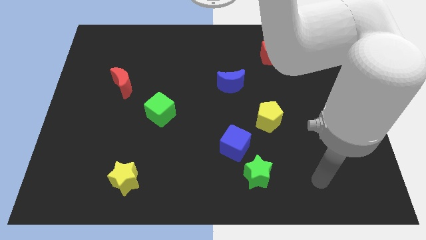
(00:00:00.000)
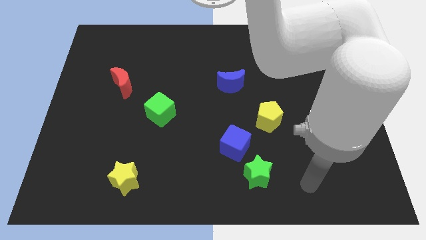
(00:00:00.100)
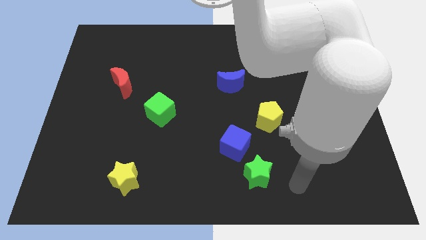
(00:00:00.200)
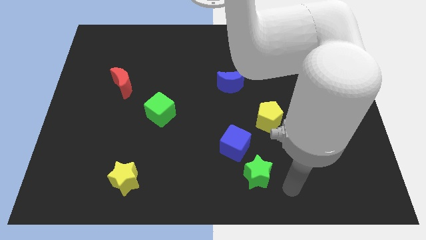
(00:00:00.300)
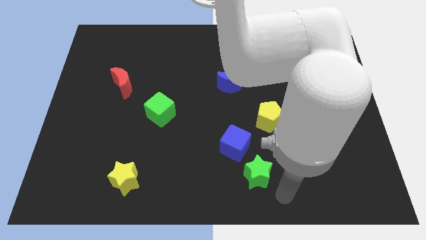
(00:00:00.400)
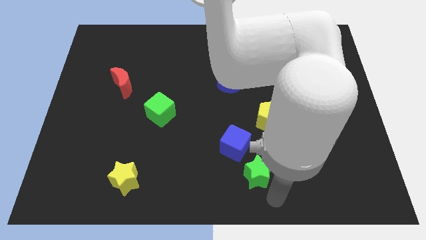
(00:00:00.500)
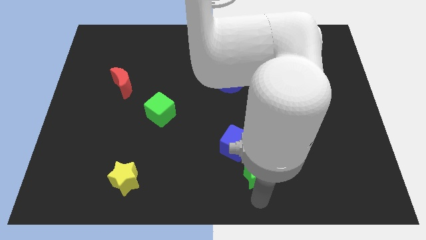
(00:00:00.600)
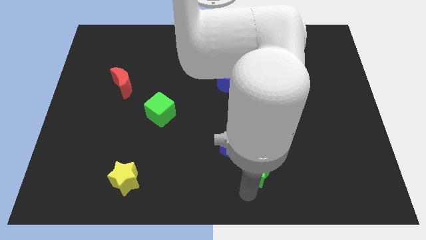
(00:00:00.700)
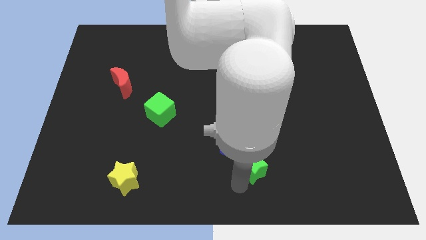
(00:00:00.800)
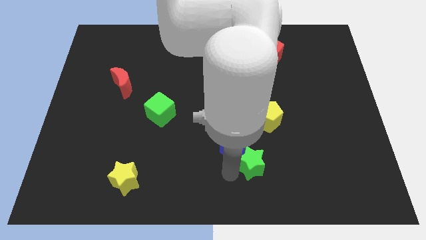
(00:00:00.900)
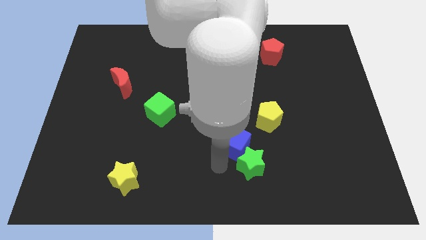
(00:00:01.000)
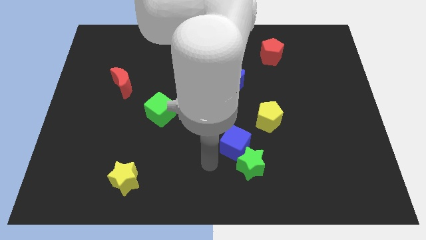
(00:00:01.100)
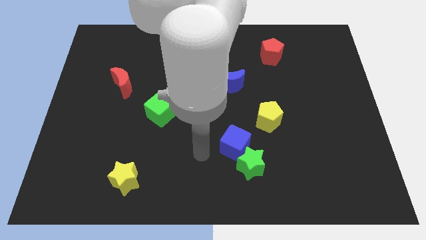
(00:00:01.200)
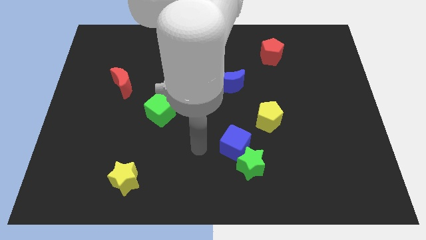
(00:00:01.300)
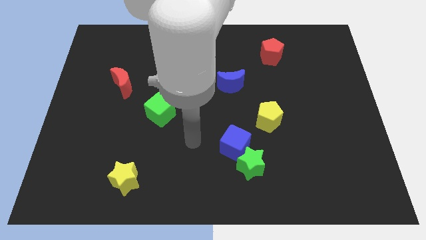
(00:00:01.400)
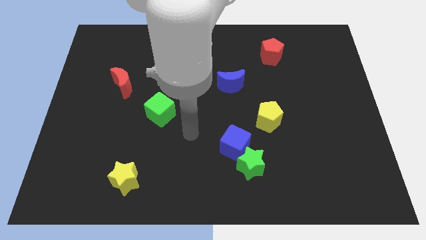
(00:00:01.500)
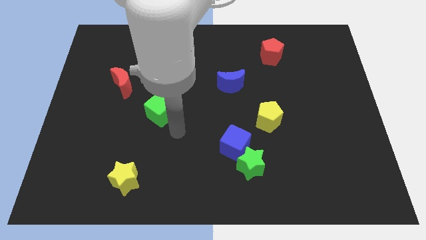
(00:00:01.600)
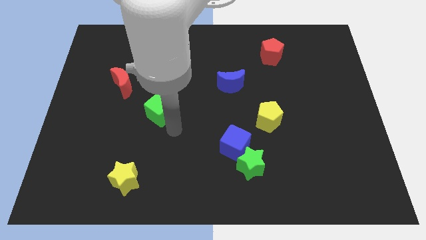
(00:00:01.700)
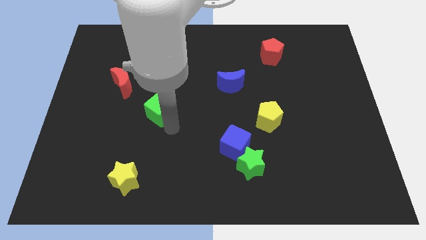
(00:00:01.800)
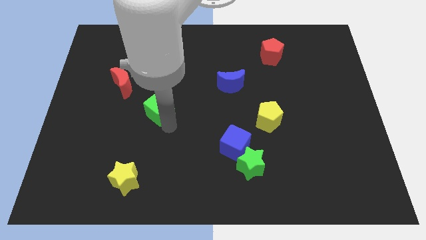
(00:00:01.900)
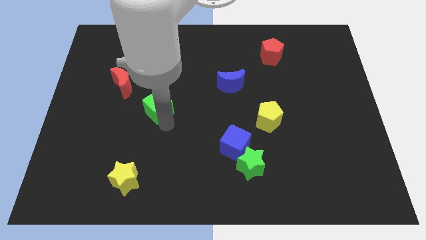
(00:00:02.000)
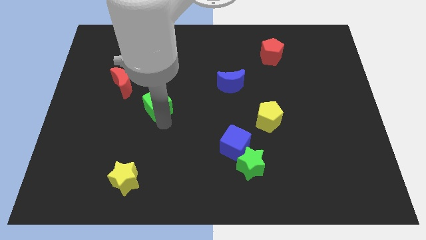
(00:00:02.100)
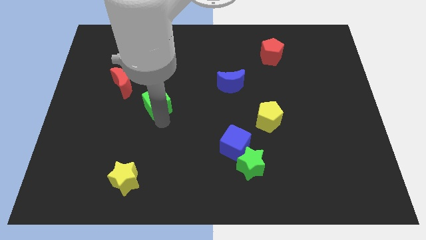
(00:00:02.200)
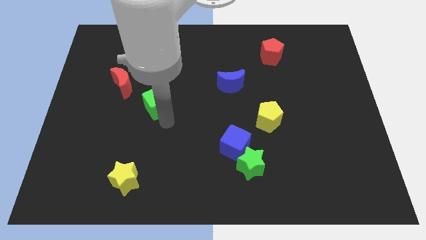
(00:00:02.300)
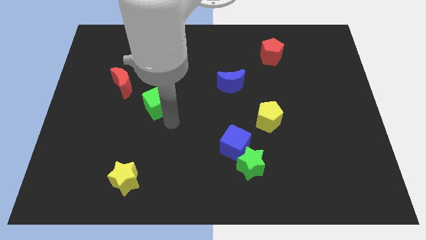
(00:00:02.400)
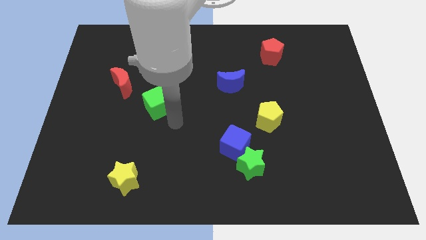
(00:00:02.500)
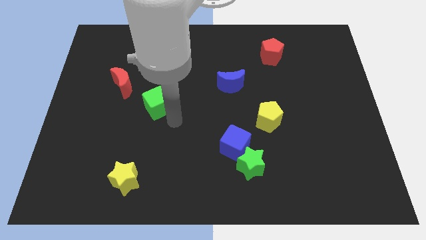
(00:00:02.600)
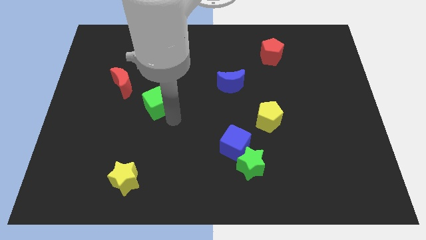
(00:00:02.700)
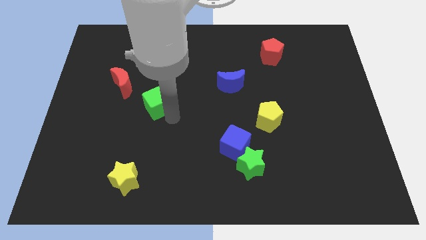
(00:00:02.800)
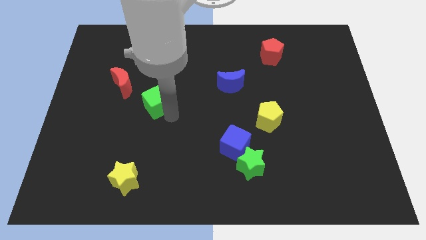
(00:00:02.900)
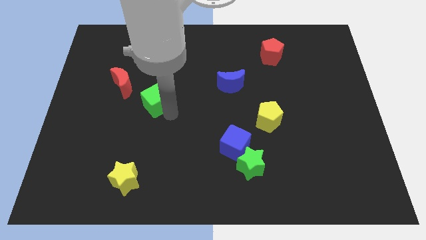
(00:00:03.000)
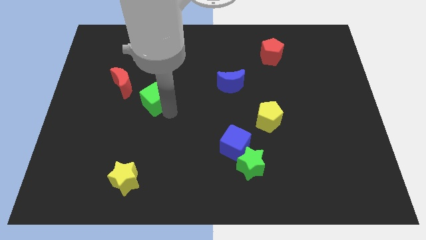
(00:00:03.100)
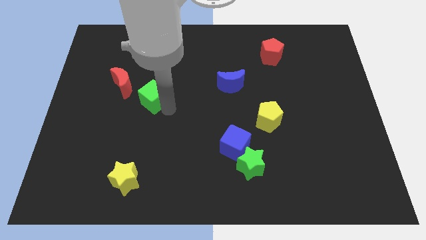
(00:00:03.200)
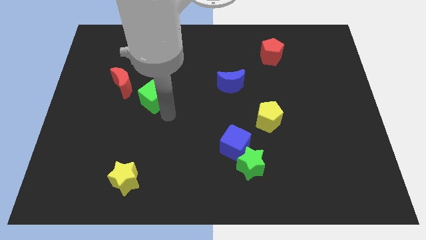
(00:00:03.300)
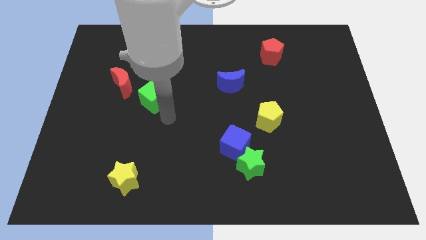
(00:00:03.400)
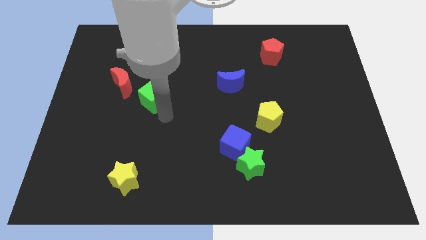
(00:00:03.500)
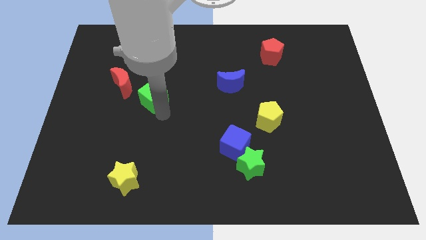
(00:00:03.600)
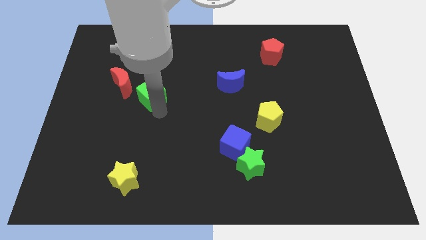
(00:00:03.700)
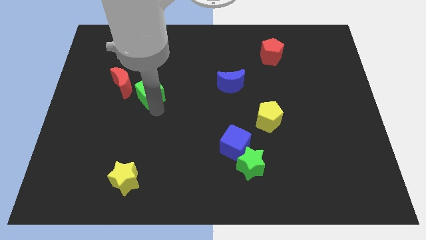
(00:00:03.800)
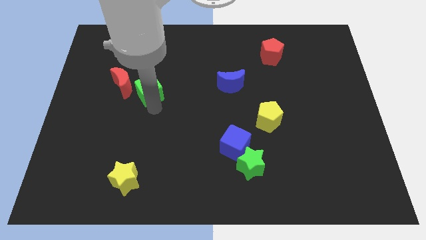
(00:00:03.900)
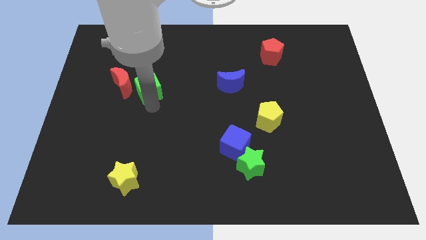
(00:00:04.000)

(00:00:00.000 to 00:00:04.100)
move the green cube upwards and left diagonally somewhat

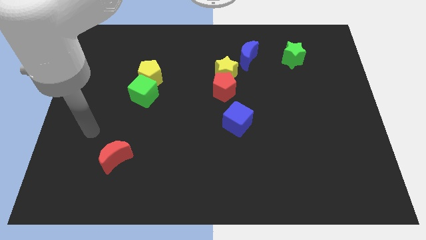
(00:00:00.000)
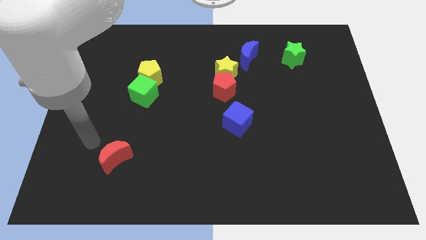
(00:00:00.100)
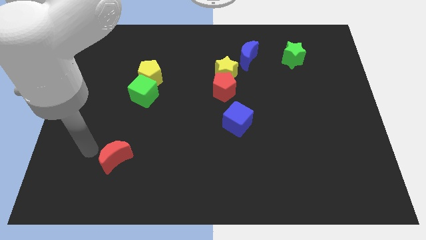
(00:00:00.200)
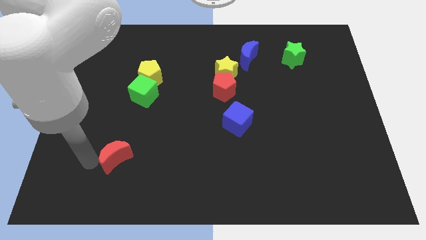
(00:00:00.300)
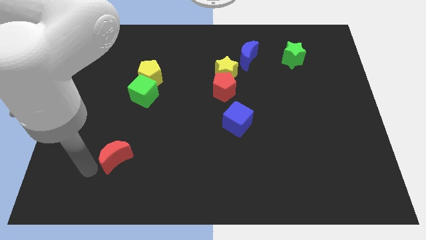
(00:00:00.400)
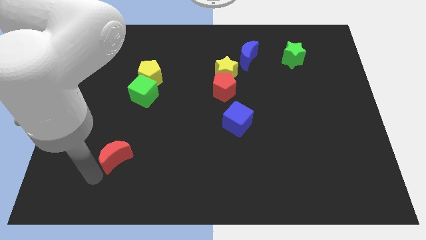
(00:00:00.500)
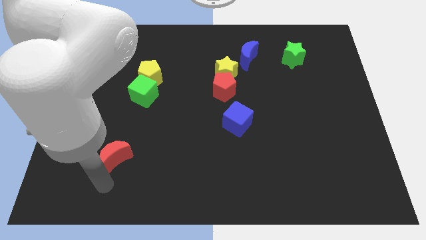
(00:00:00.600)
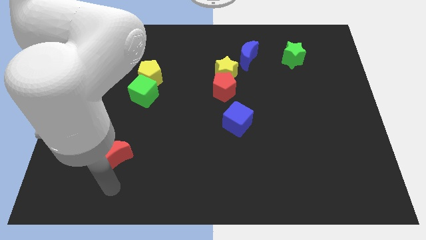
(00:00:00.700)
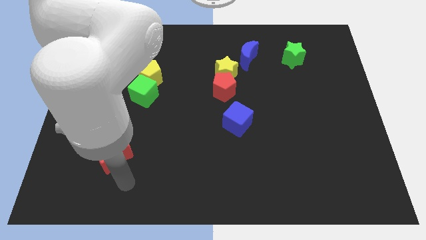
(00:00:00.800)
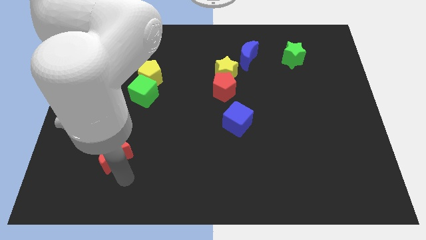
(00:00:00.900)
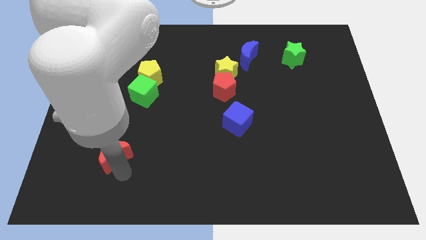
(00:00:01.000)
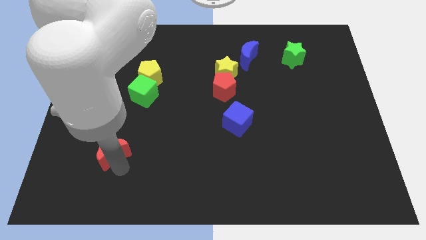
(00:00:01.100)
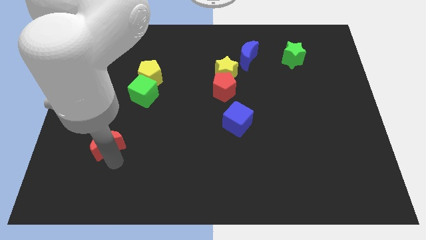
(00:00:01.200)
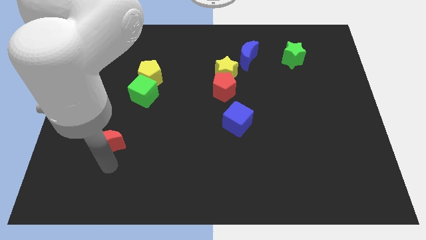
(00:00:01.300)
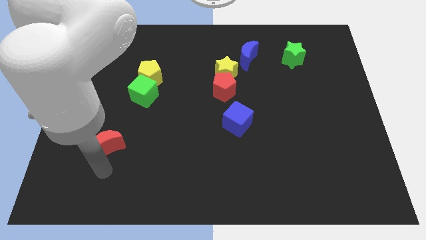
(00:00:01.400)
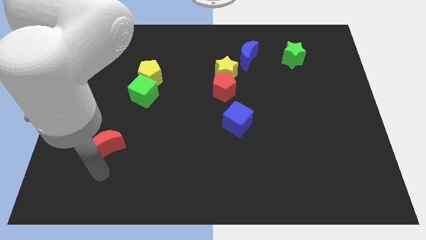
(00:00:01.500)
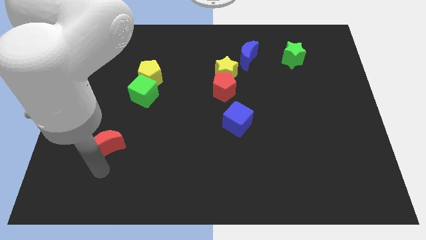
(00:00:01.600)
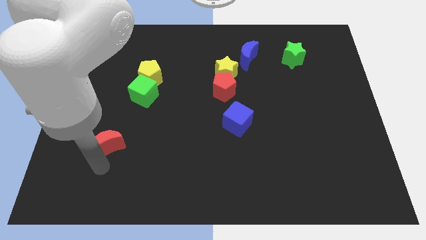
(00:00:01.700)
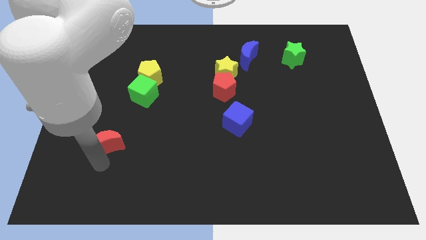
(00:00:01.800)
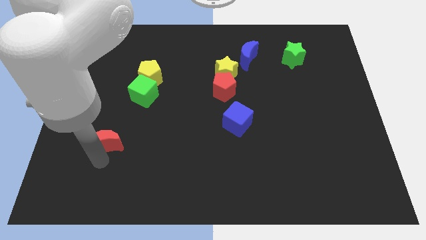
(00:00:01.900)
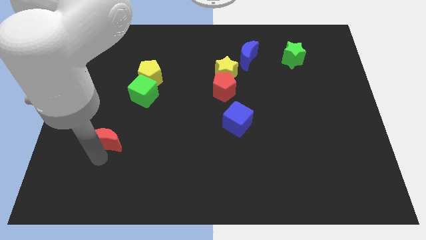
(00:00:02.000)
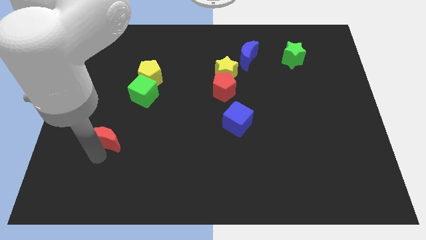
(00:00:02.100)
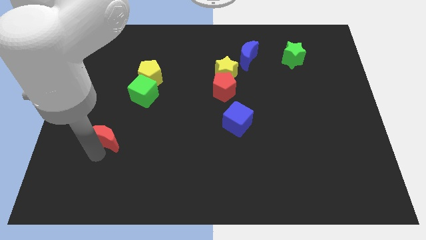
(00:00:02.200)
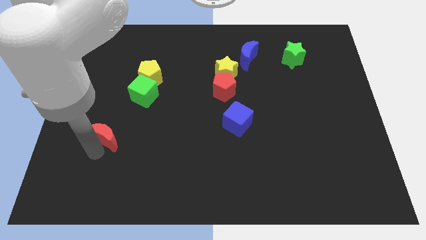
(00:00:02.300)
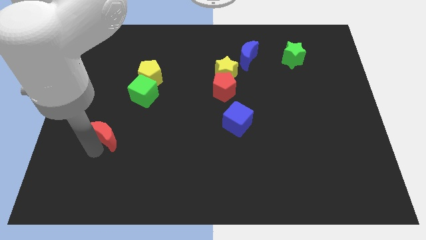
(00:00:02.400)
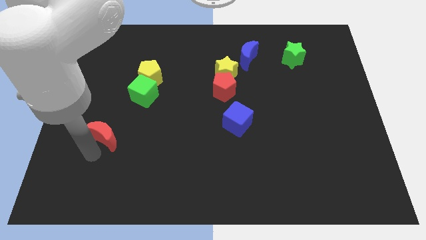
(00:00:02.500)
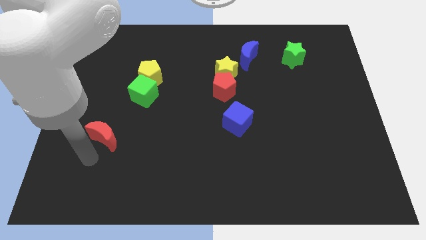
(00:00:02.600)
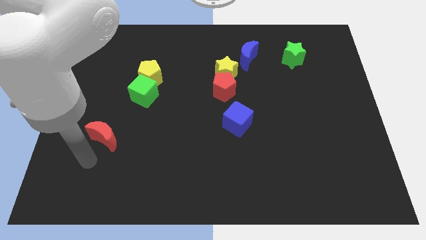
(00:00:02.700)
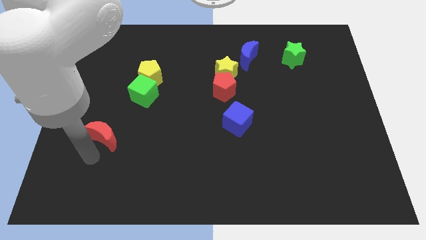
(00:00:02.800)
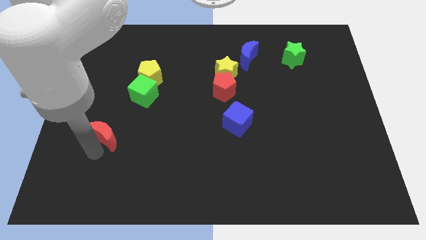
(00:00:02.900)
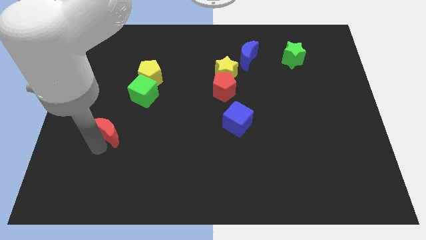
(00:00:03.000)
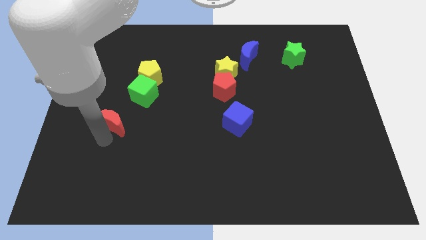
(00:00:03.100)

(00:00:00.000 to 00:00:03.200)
push the red moon up slightly

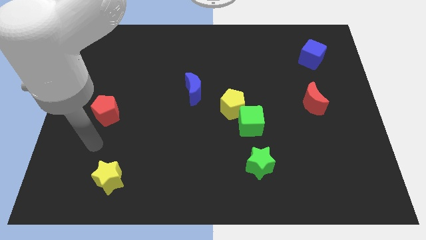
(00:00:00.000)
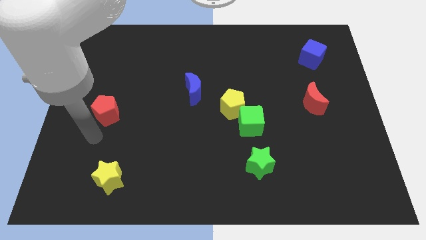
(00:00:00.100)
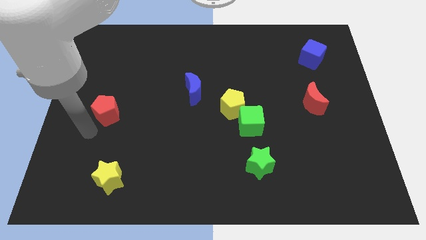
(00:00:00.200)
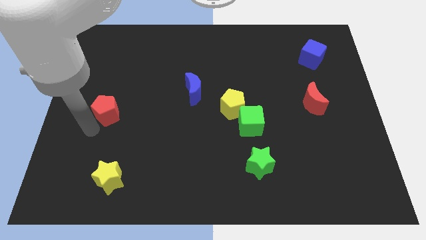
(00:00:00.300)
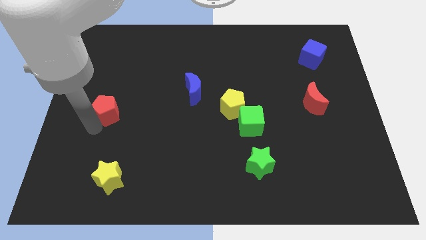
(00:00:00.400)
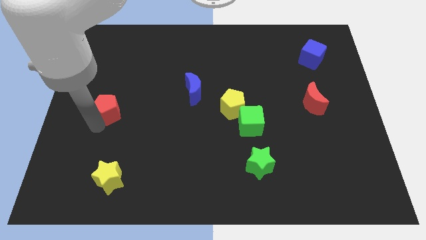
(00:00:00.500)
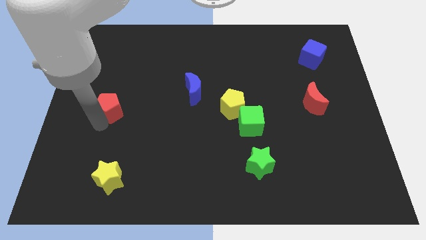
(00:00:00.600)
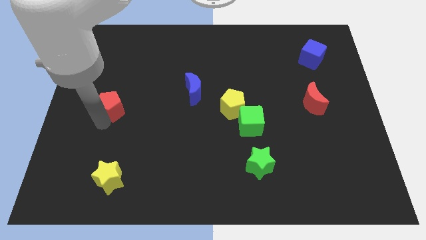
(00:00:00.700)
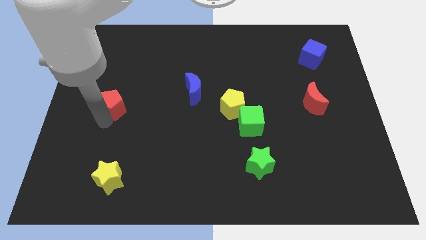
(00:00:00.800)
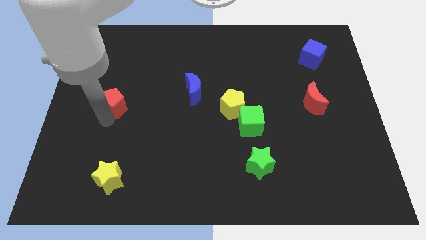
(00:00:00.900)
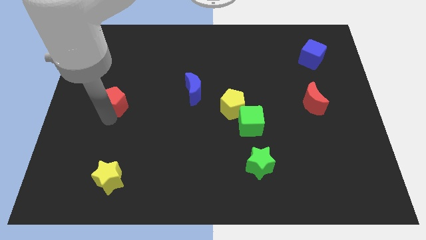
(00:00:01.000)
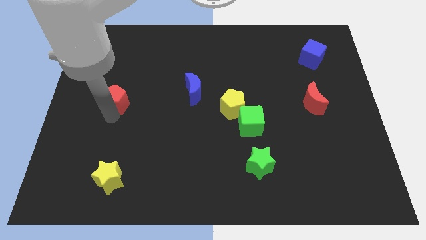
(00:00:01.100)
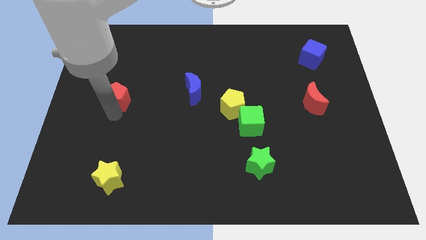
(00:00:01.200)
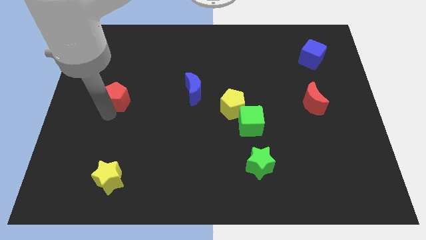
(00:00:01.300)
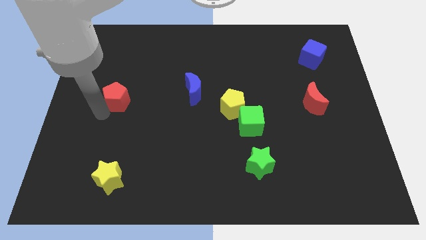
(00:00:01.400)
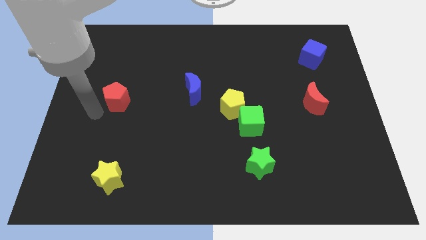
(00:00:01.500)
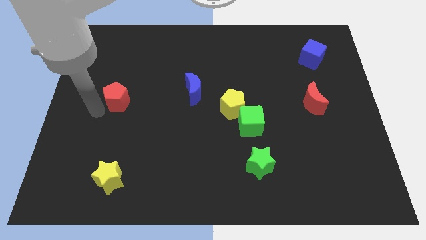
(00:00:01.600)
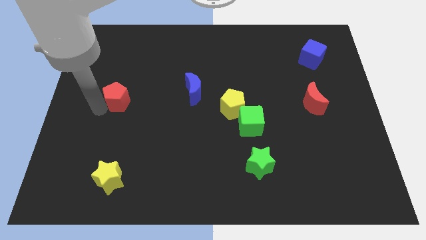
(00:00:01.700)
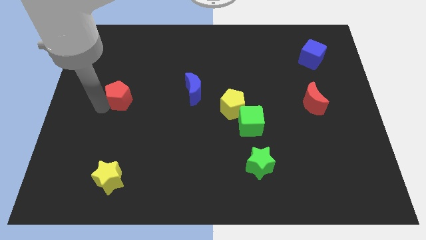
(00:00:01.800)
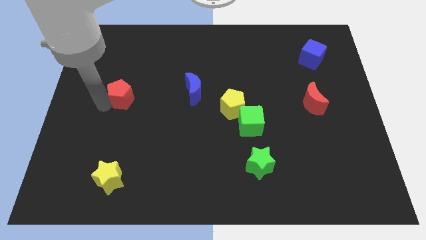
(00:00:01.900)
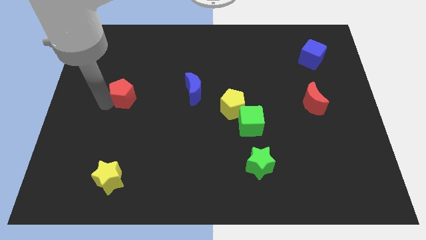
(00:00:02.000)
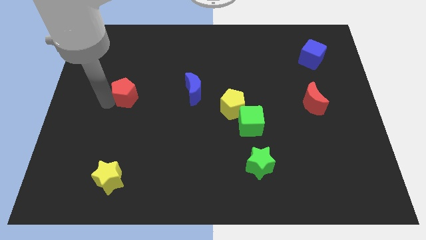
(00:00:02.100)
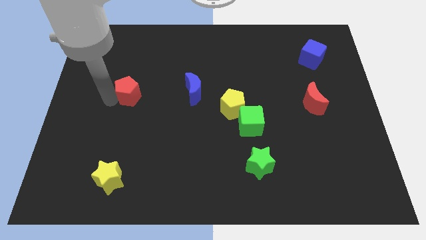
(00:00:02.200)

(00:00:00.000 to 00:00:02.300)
move the red pentagon up and right diagonally a bit
